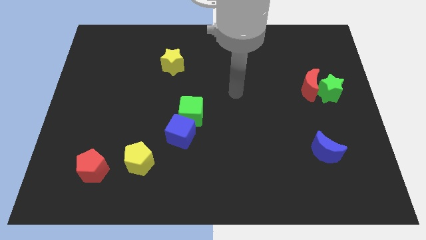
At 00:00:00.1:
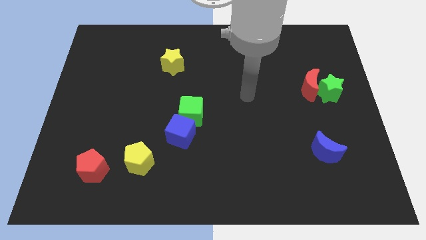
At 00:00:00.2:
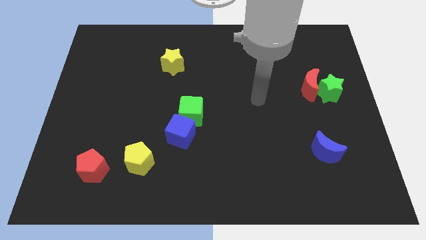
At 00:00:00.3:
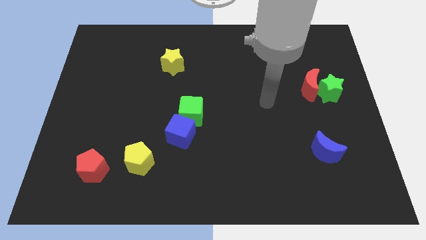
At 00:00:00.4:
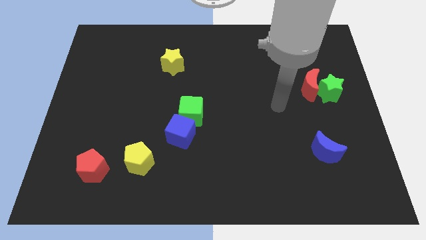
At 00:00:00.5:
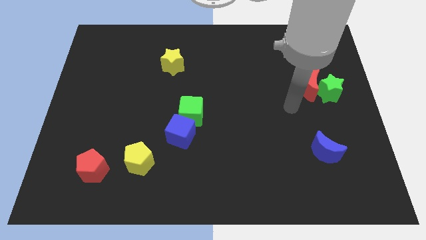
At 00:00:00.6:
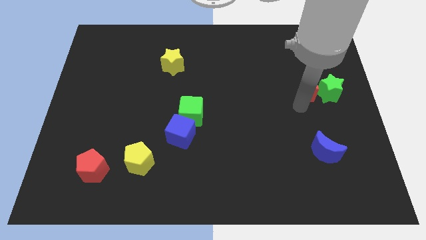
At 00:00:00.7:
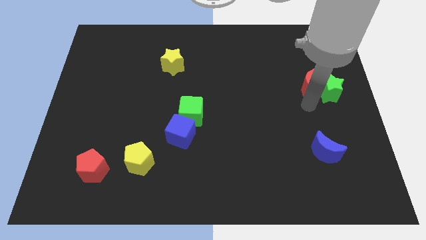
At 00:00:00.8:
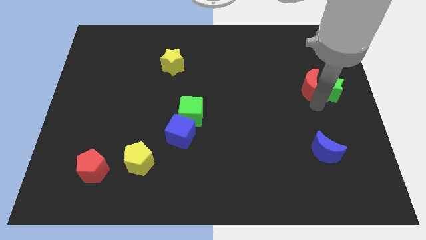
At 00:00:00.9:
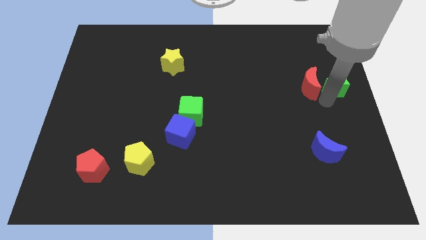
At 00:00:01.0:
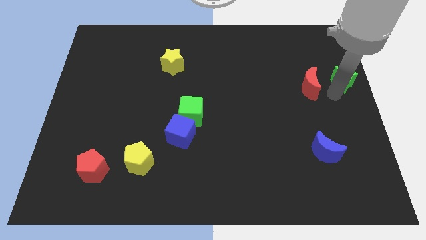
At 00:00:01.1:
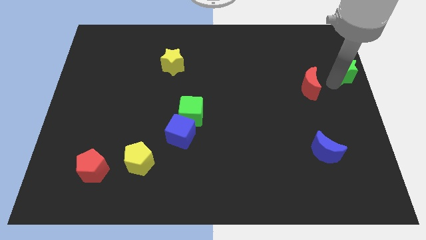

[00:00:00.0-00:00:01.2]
separate the red moon from the green star

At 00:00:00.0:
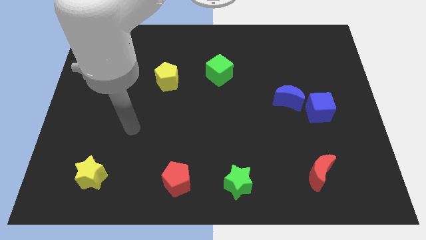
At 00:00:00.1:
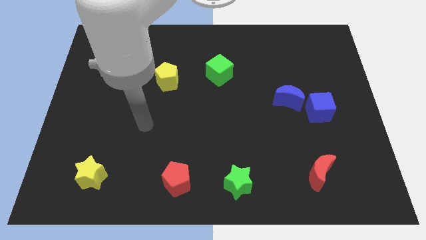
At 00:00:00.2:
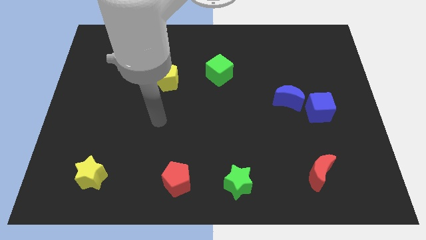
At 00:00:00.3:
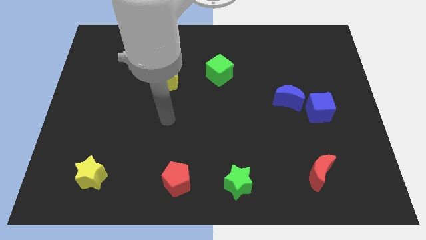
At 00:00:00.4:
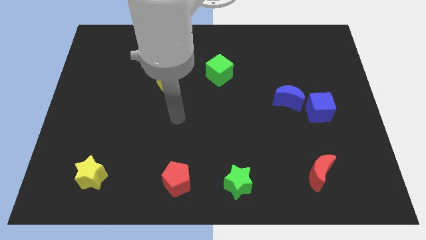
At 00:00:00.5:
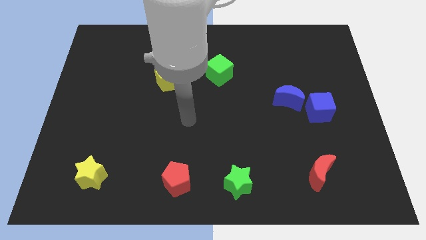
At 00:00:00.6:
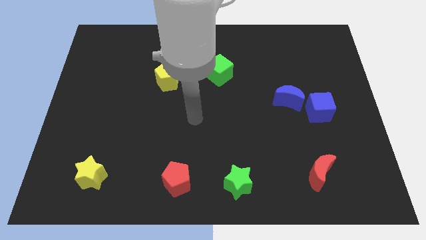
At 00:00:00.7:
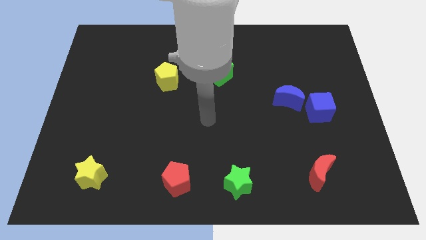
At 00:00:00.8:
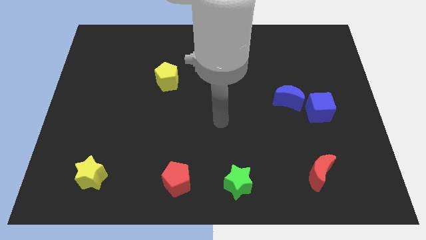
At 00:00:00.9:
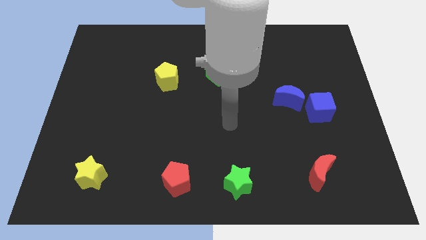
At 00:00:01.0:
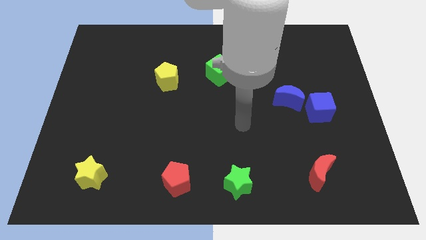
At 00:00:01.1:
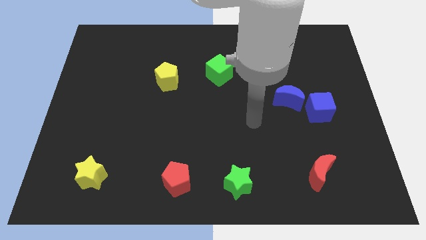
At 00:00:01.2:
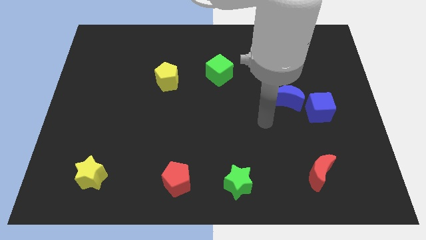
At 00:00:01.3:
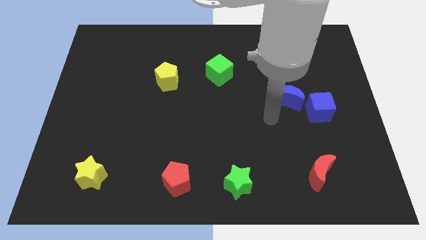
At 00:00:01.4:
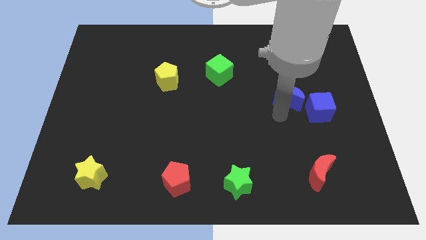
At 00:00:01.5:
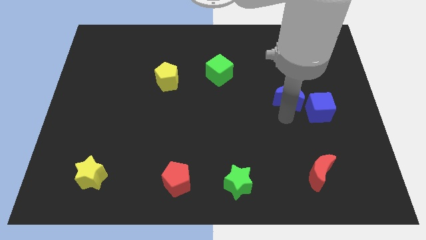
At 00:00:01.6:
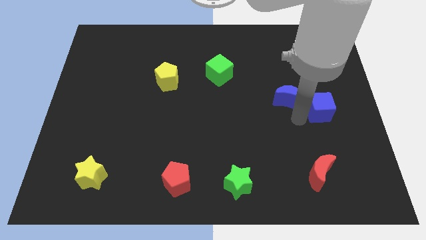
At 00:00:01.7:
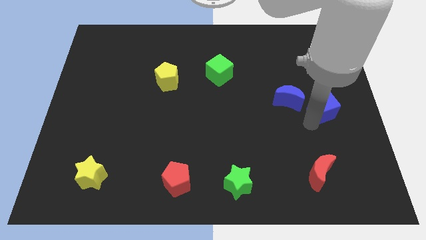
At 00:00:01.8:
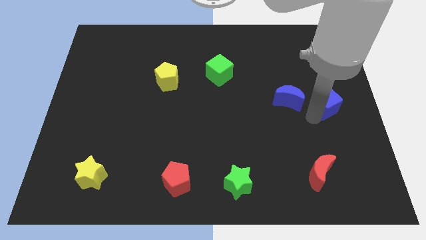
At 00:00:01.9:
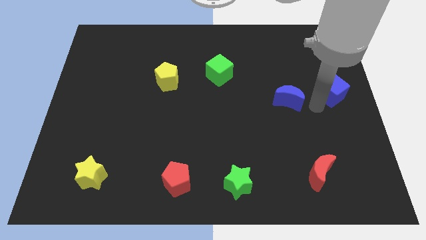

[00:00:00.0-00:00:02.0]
pull the blue moon apart from the blue cube

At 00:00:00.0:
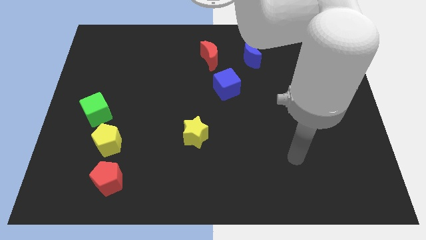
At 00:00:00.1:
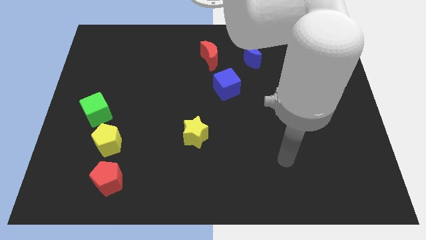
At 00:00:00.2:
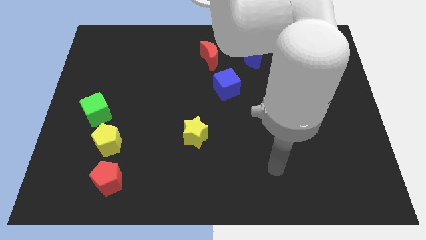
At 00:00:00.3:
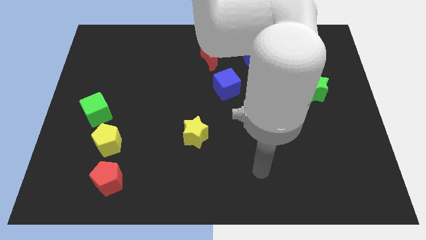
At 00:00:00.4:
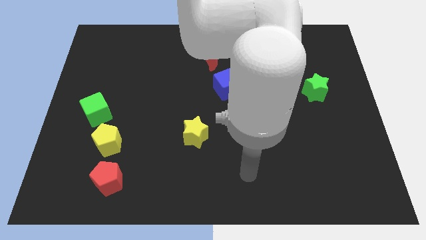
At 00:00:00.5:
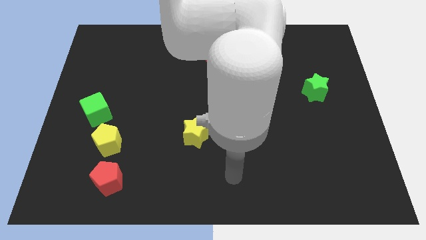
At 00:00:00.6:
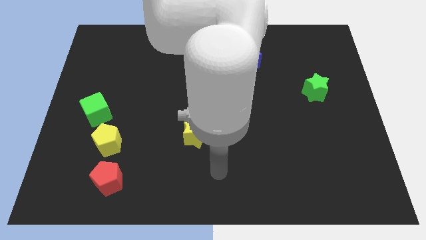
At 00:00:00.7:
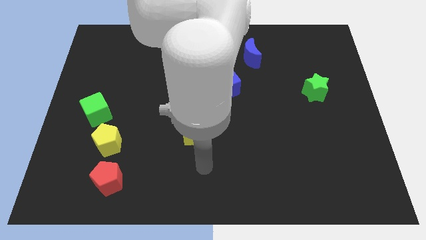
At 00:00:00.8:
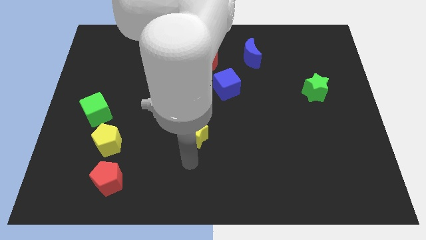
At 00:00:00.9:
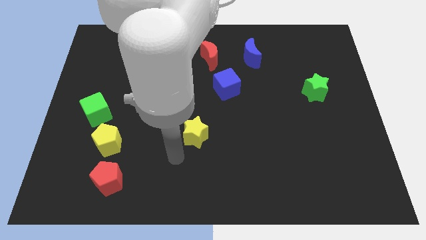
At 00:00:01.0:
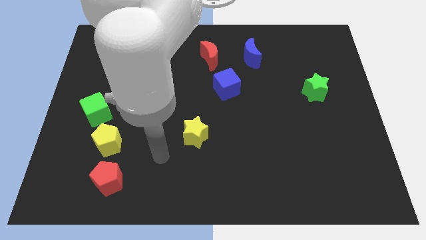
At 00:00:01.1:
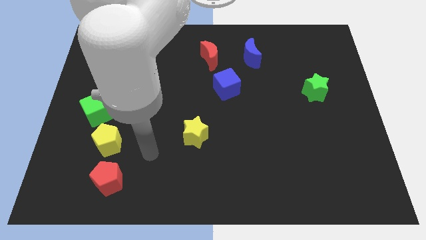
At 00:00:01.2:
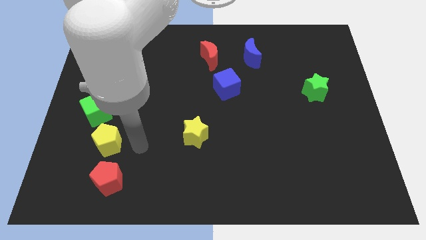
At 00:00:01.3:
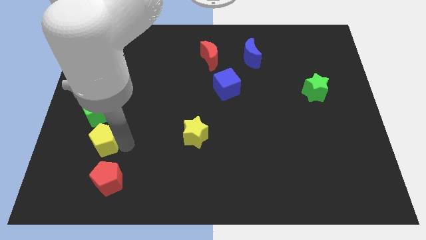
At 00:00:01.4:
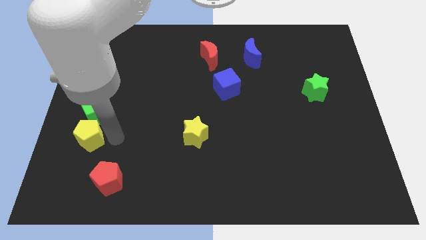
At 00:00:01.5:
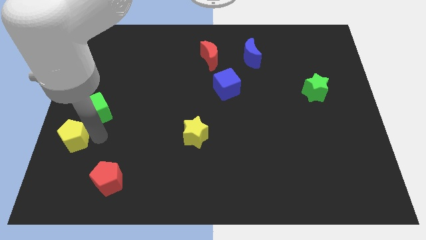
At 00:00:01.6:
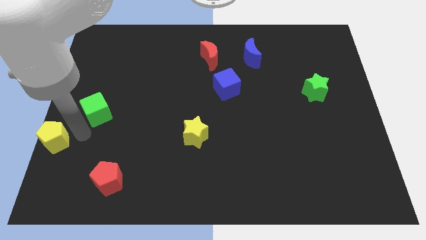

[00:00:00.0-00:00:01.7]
pull the green cube apart from the yellow pentagon

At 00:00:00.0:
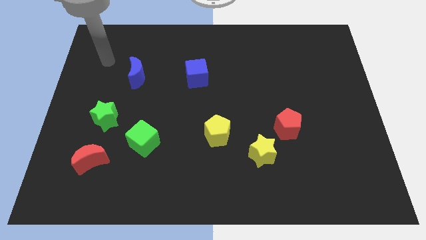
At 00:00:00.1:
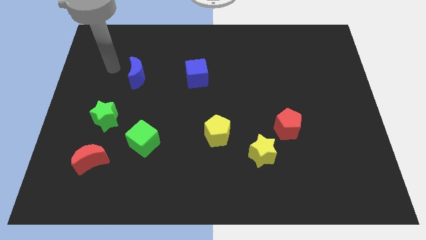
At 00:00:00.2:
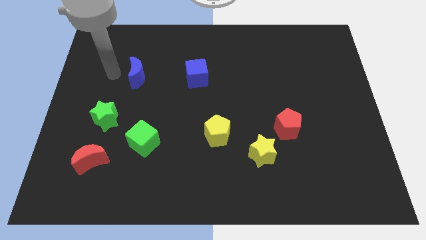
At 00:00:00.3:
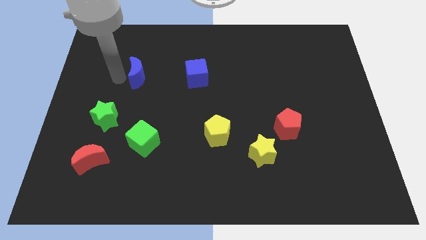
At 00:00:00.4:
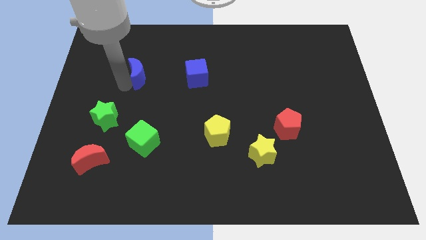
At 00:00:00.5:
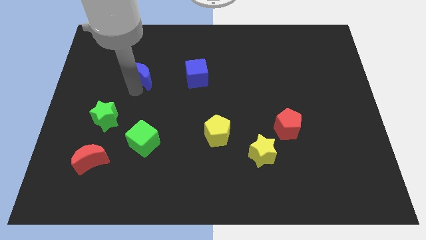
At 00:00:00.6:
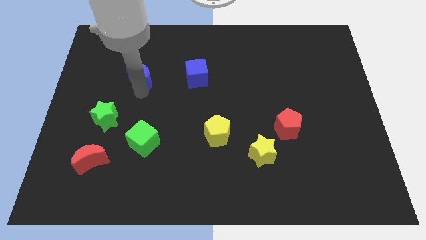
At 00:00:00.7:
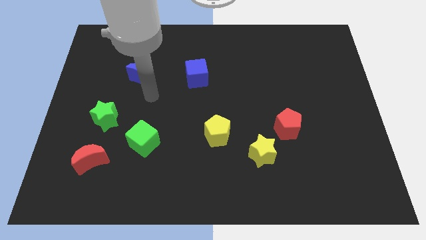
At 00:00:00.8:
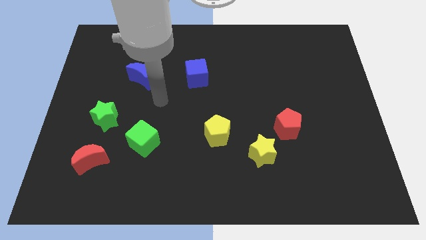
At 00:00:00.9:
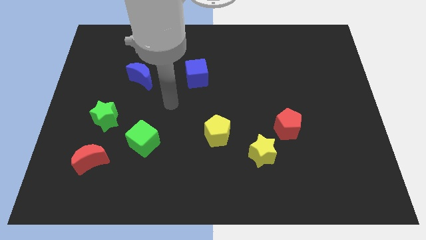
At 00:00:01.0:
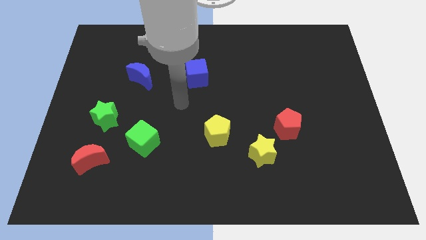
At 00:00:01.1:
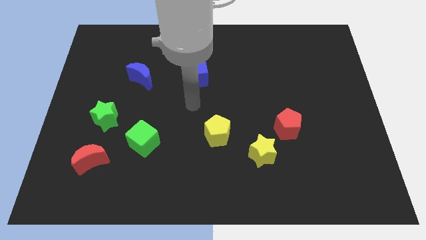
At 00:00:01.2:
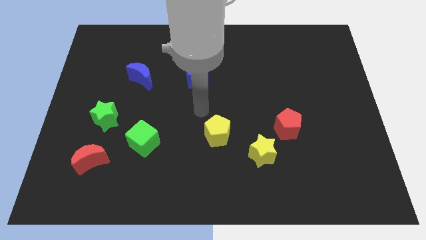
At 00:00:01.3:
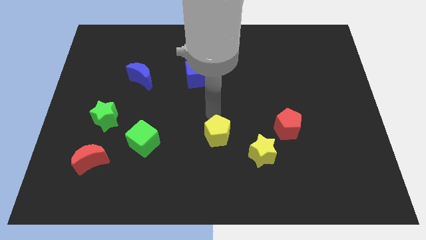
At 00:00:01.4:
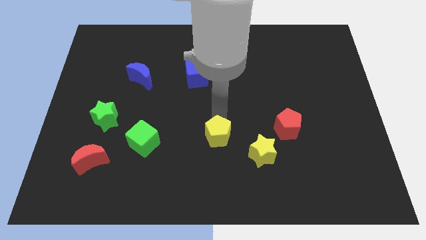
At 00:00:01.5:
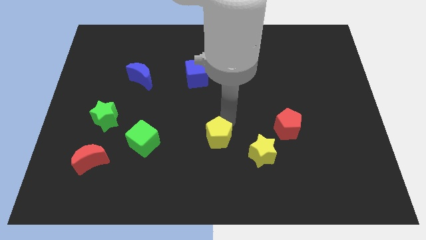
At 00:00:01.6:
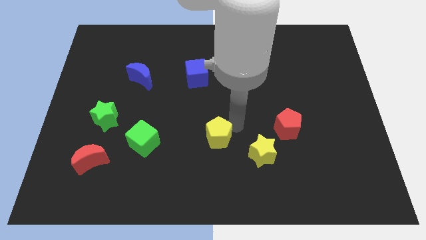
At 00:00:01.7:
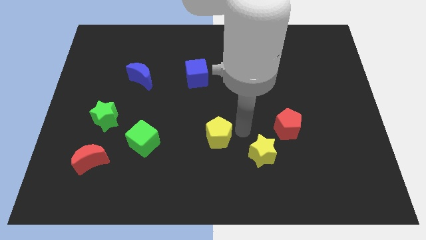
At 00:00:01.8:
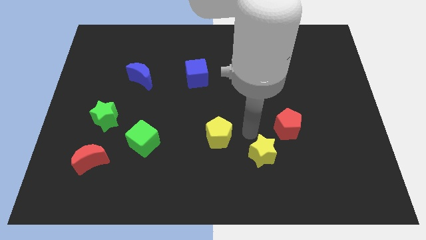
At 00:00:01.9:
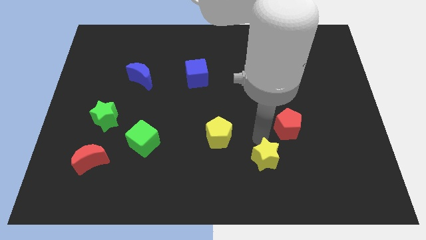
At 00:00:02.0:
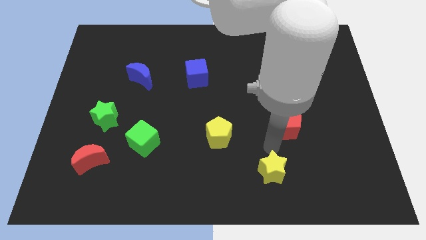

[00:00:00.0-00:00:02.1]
pull the red pentagon apart from the yellow star

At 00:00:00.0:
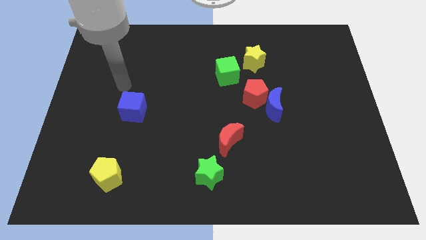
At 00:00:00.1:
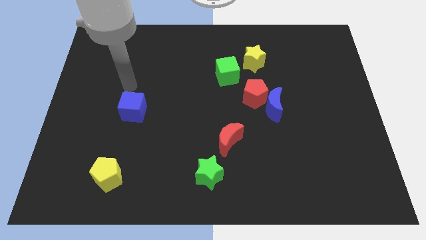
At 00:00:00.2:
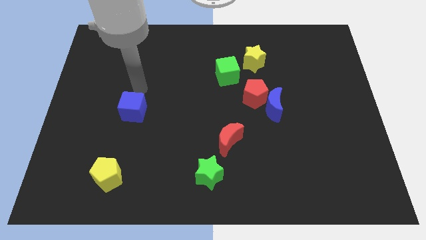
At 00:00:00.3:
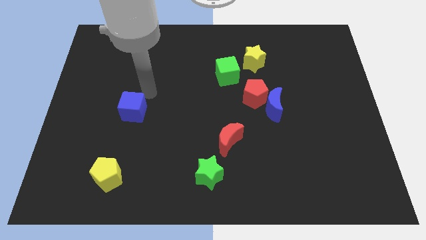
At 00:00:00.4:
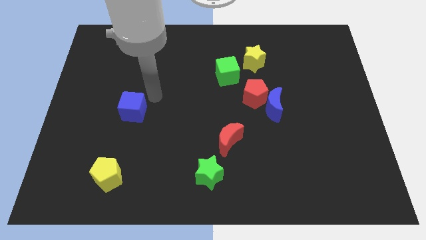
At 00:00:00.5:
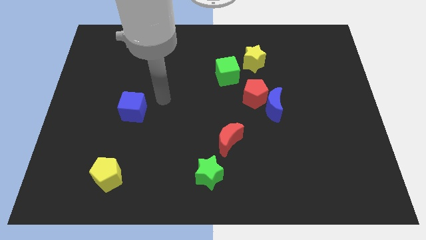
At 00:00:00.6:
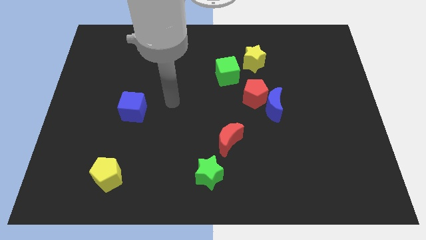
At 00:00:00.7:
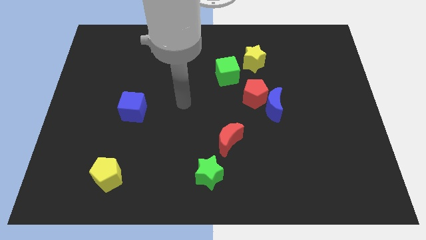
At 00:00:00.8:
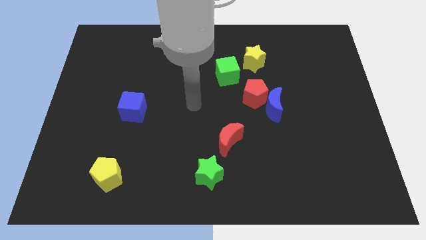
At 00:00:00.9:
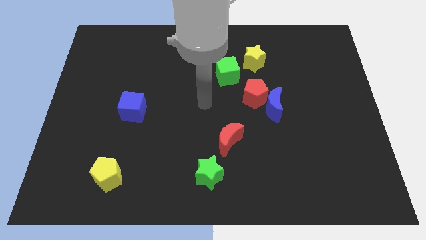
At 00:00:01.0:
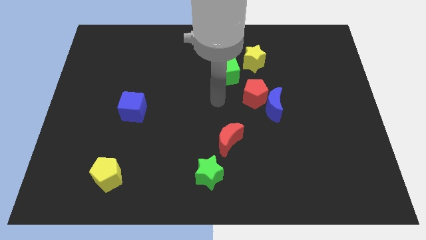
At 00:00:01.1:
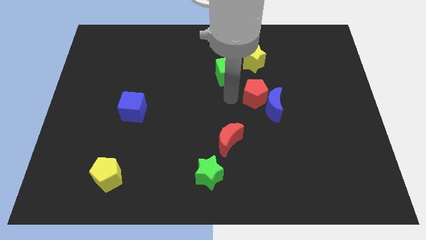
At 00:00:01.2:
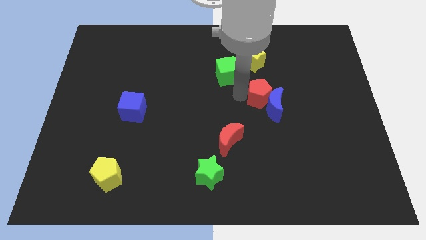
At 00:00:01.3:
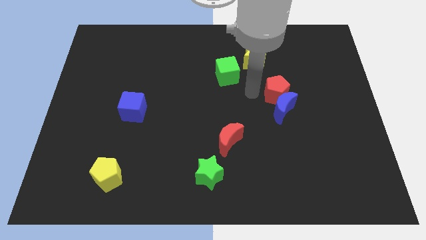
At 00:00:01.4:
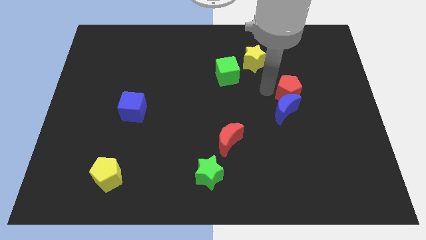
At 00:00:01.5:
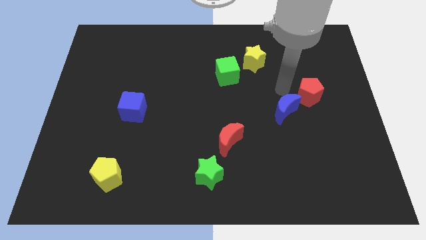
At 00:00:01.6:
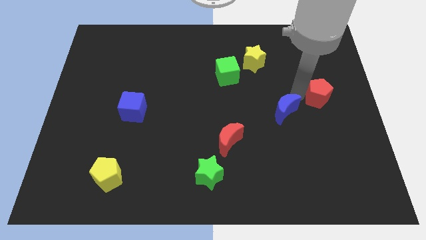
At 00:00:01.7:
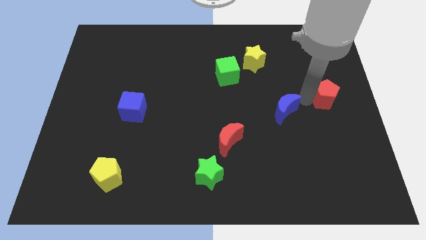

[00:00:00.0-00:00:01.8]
separate the blue moon from the red pentagon

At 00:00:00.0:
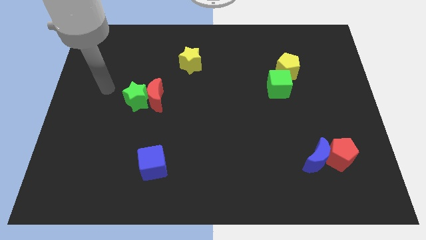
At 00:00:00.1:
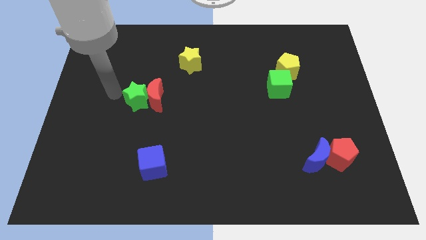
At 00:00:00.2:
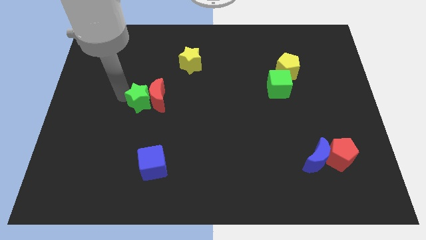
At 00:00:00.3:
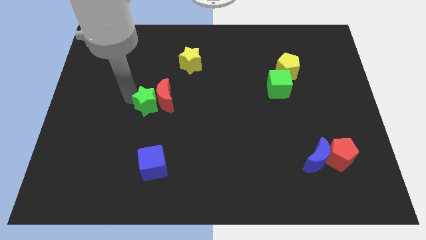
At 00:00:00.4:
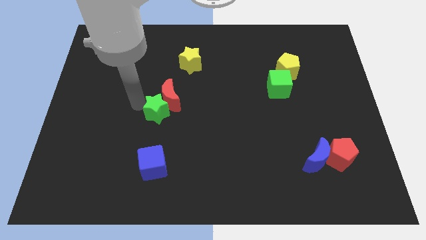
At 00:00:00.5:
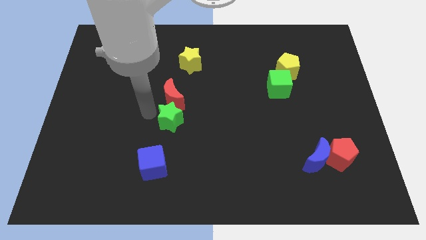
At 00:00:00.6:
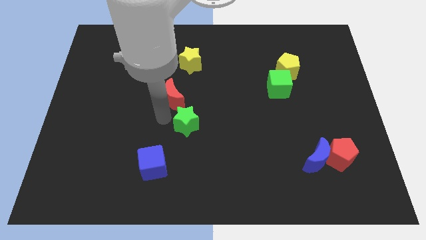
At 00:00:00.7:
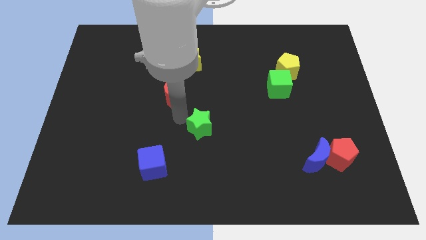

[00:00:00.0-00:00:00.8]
move the red moon away from the green star
